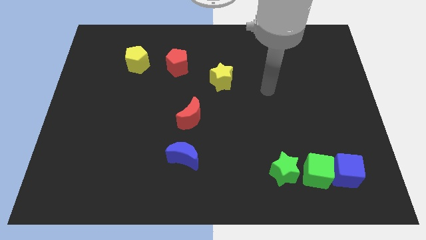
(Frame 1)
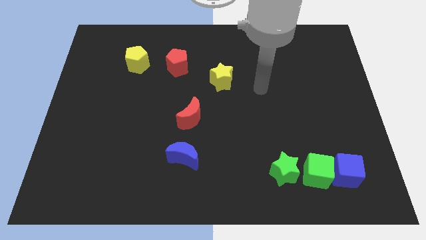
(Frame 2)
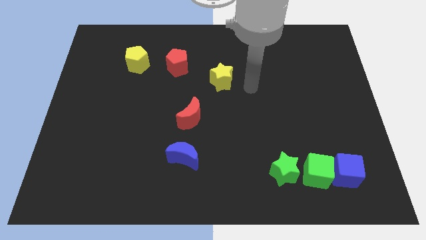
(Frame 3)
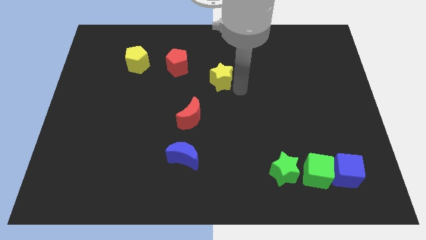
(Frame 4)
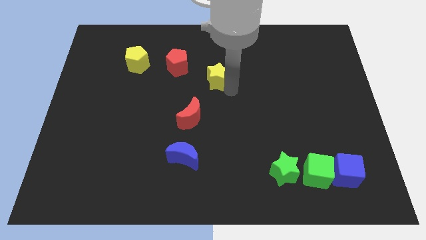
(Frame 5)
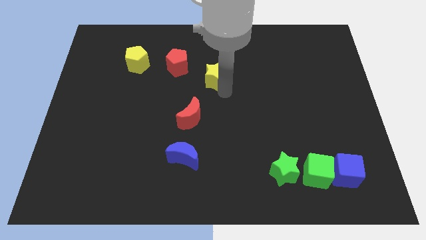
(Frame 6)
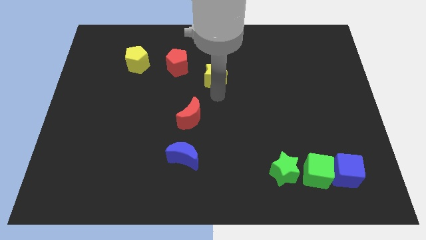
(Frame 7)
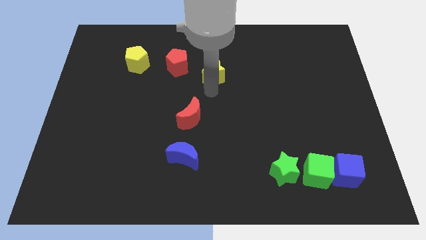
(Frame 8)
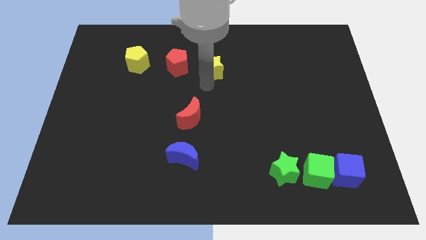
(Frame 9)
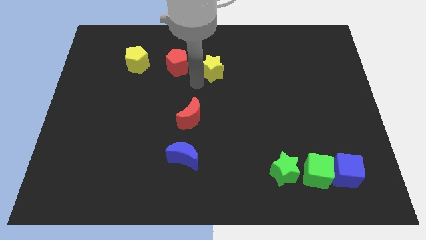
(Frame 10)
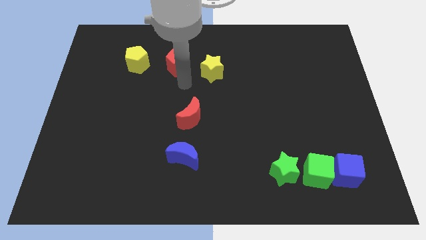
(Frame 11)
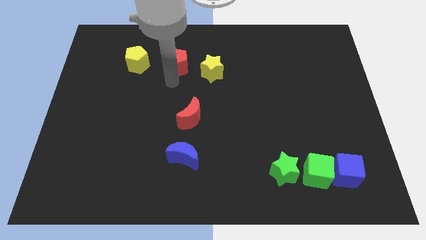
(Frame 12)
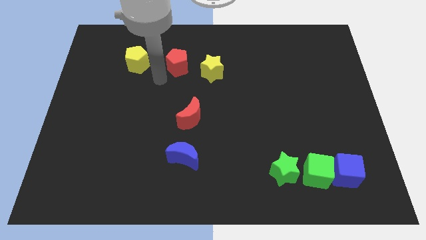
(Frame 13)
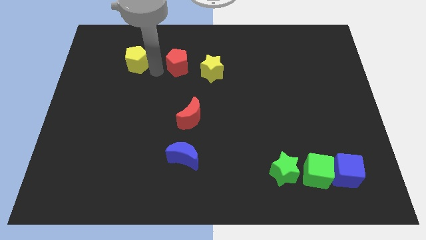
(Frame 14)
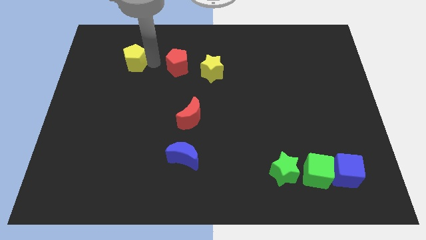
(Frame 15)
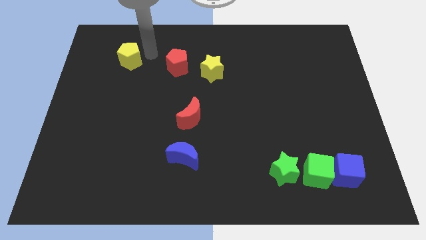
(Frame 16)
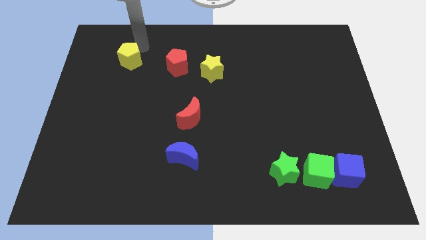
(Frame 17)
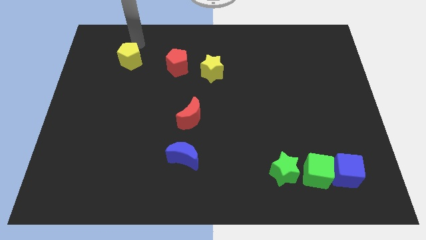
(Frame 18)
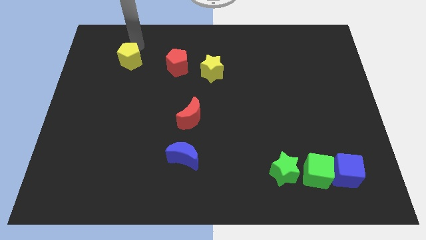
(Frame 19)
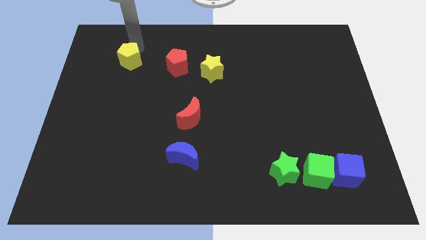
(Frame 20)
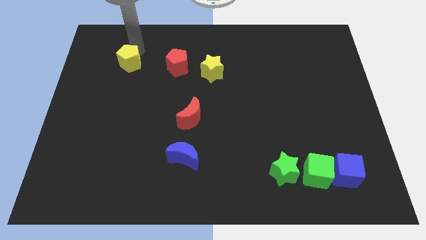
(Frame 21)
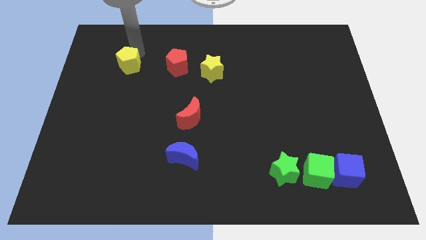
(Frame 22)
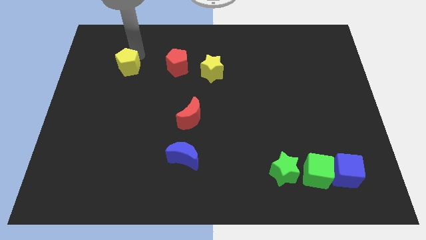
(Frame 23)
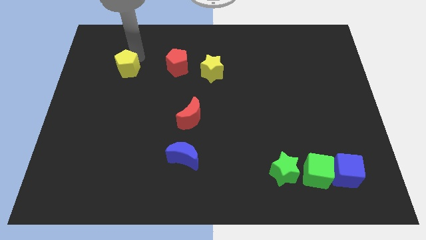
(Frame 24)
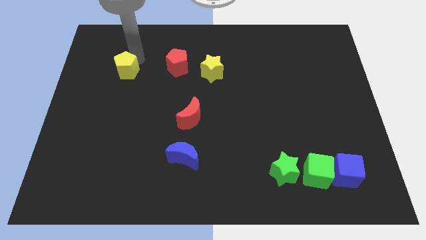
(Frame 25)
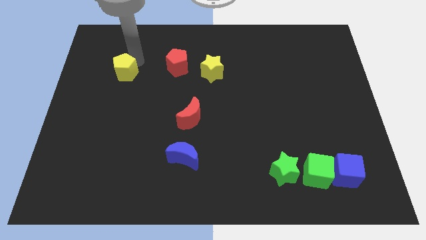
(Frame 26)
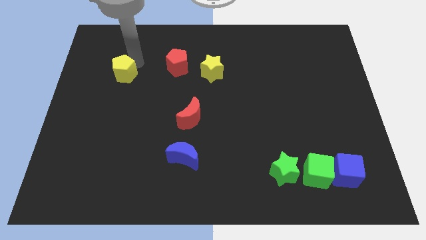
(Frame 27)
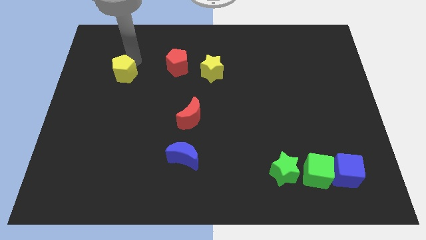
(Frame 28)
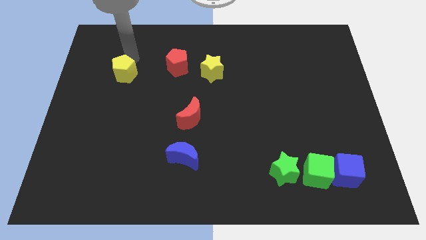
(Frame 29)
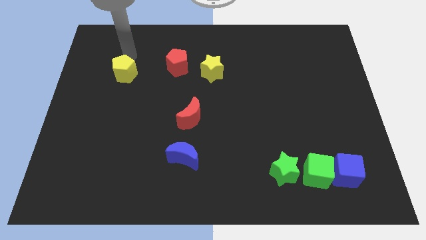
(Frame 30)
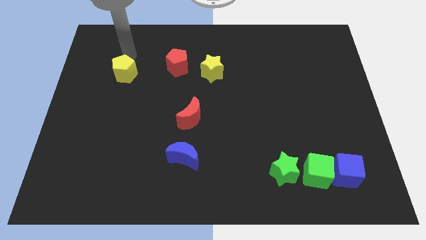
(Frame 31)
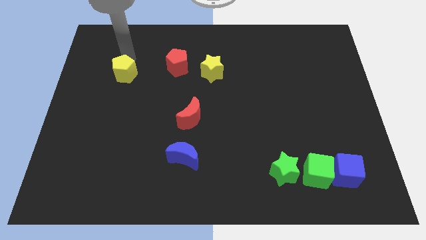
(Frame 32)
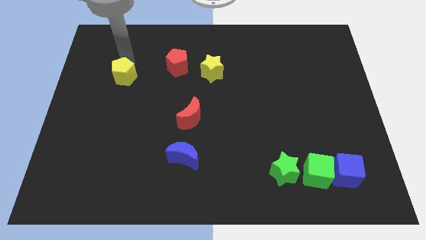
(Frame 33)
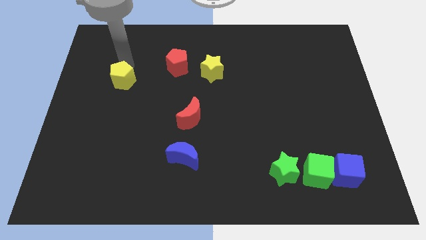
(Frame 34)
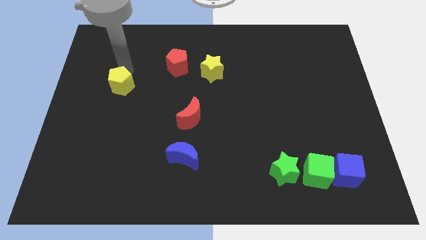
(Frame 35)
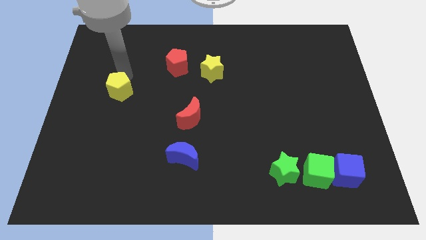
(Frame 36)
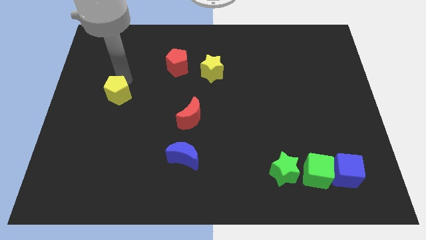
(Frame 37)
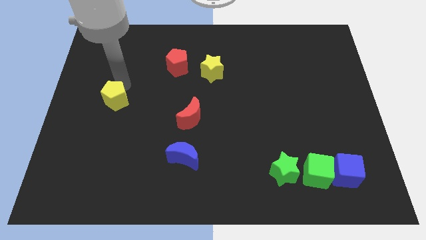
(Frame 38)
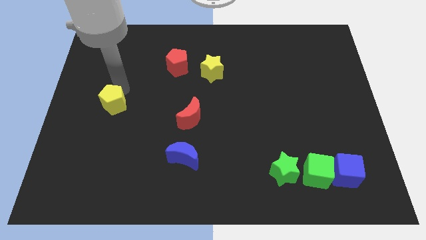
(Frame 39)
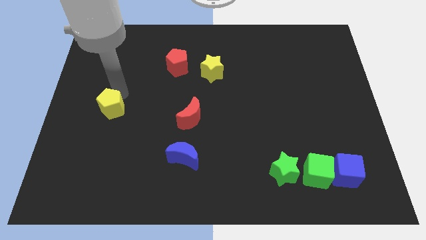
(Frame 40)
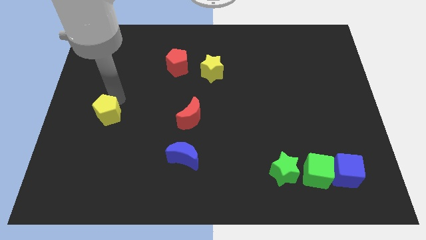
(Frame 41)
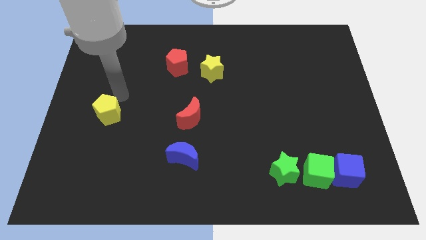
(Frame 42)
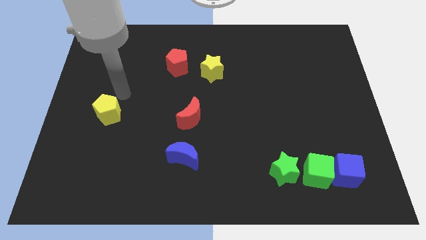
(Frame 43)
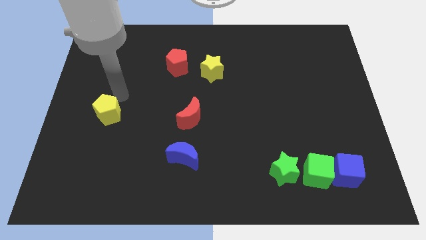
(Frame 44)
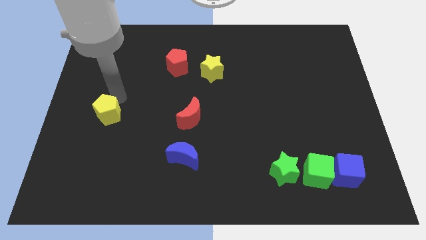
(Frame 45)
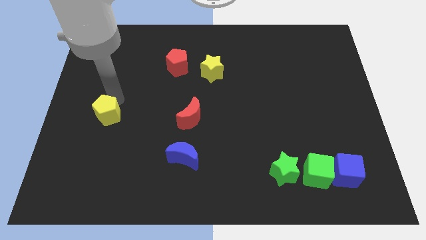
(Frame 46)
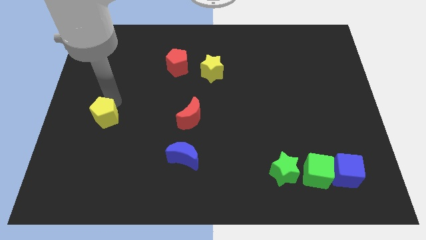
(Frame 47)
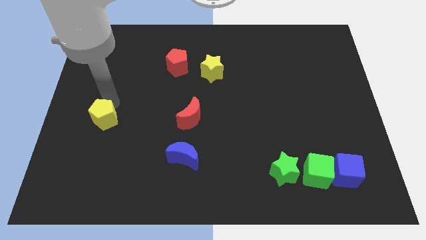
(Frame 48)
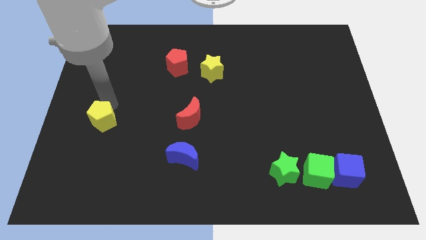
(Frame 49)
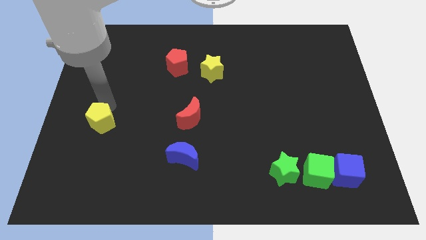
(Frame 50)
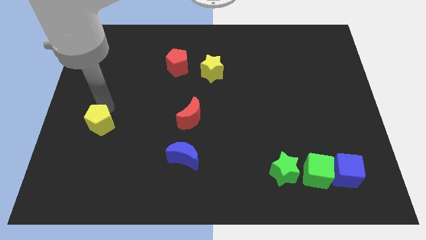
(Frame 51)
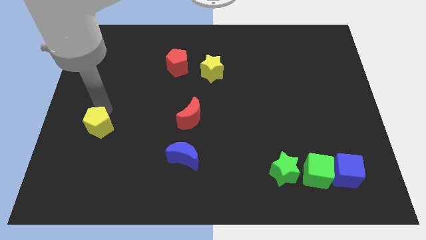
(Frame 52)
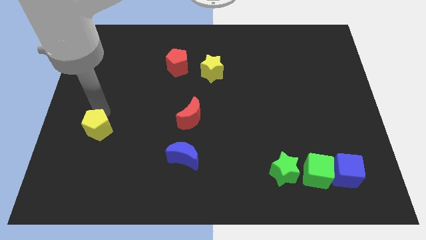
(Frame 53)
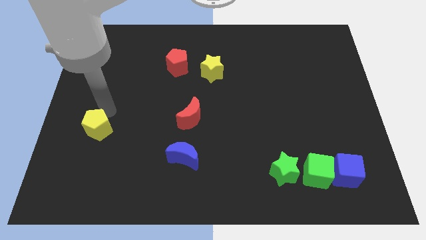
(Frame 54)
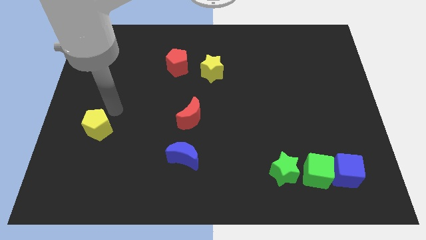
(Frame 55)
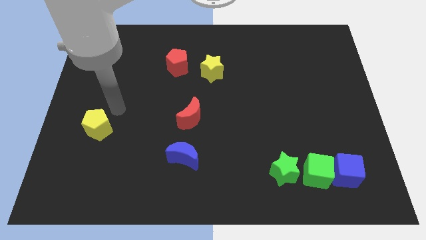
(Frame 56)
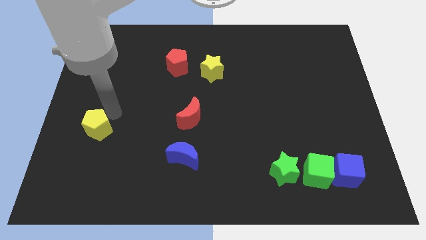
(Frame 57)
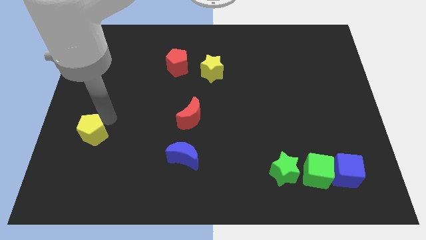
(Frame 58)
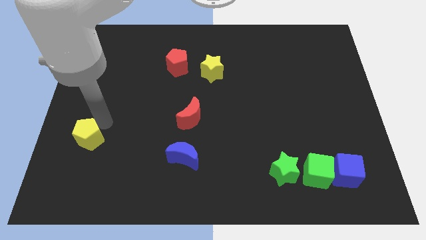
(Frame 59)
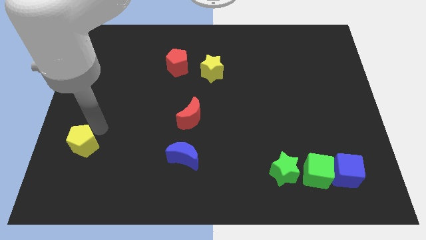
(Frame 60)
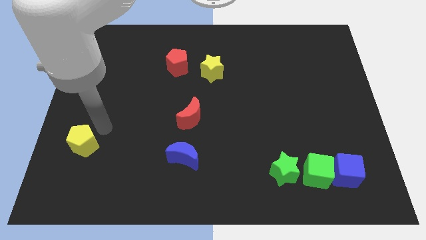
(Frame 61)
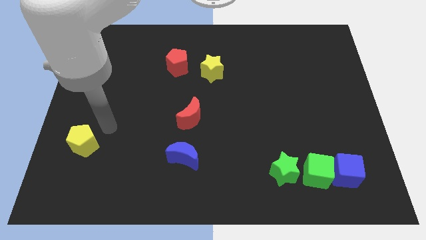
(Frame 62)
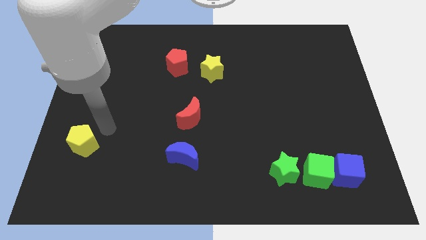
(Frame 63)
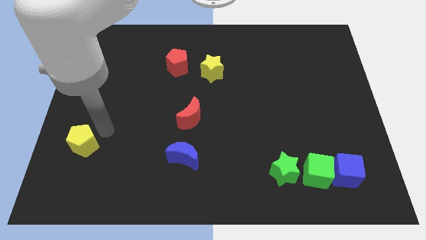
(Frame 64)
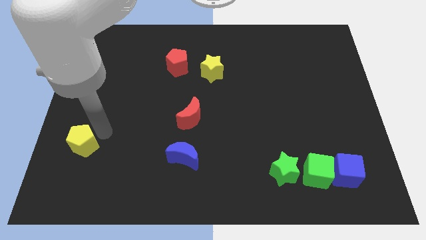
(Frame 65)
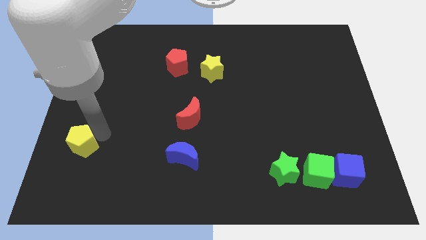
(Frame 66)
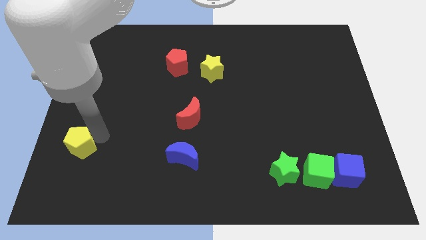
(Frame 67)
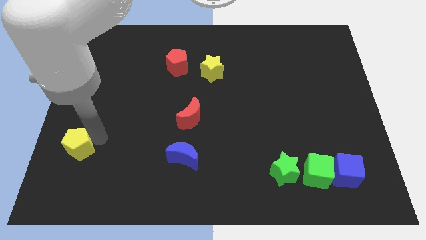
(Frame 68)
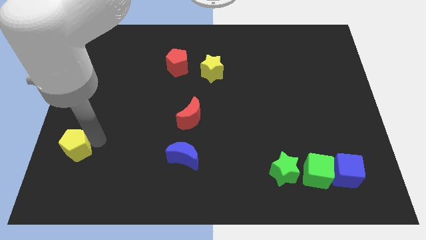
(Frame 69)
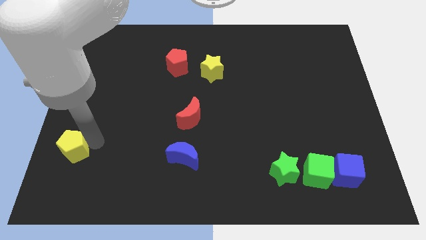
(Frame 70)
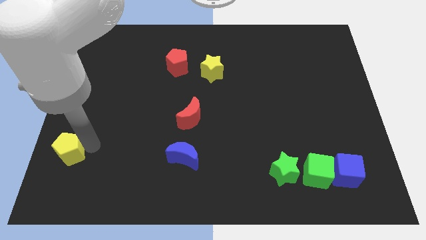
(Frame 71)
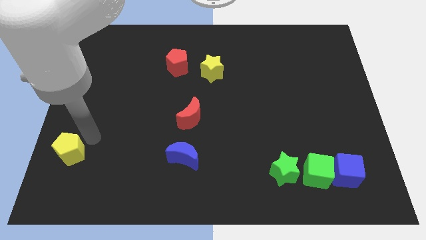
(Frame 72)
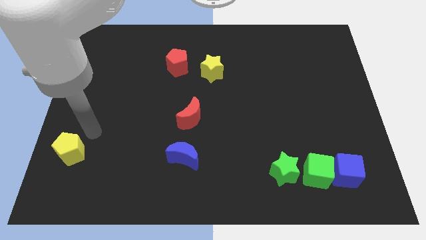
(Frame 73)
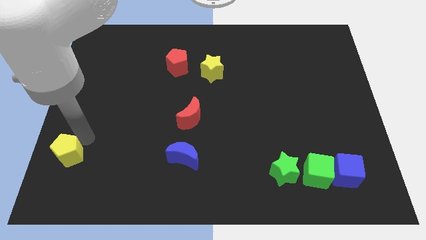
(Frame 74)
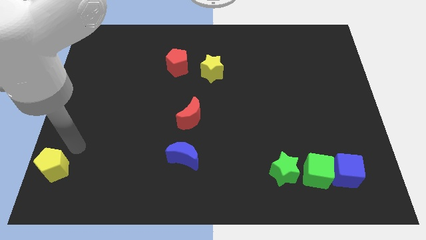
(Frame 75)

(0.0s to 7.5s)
push the yellow pentagon to the bottom left corner
